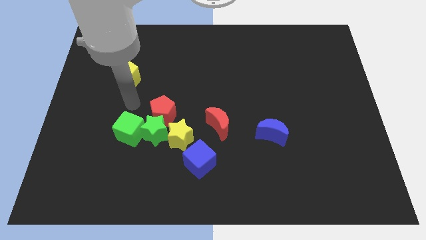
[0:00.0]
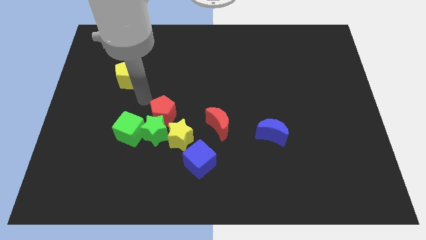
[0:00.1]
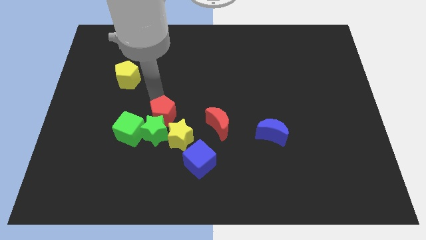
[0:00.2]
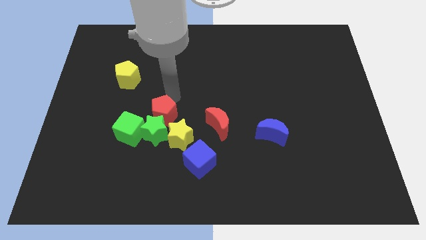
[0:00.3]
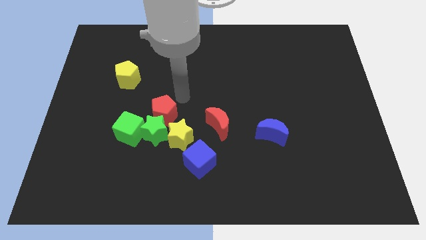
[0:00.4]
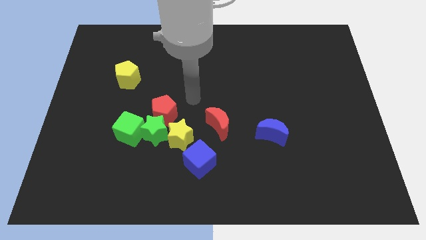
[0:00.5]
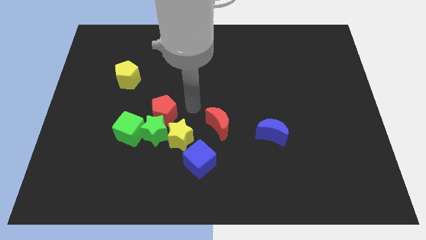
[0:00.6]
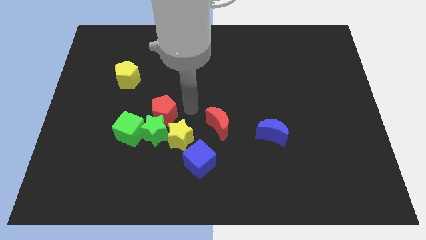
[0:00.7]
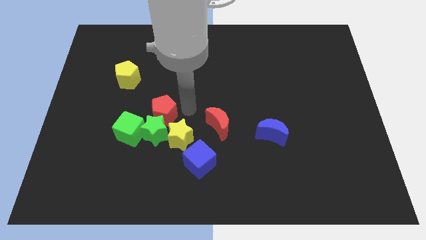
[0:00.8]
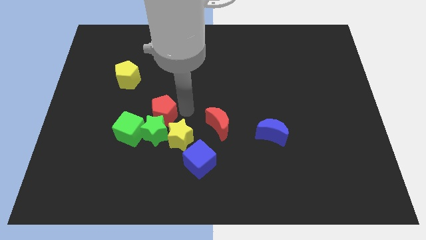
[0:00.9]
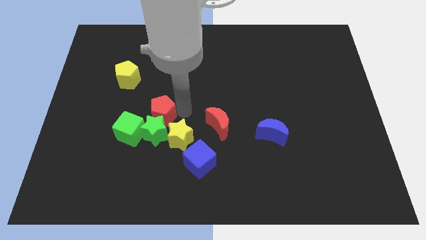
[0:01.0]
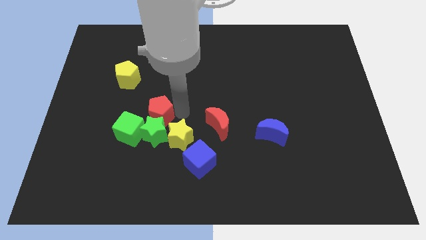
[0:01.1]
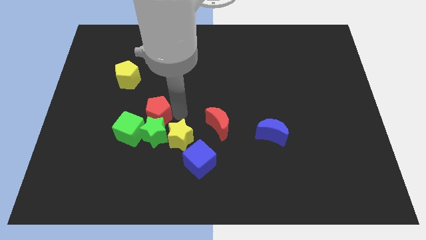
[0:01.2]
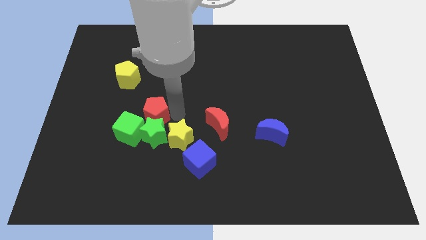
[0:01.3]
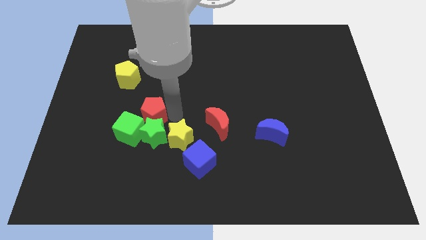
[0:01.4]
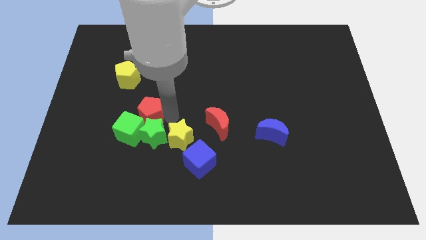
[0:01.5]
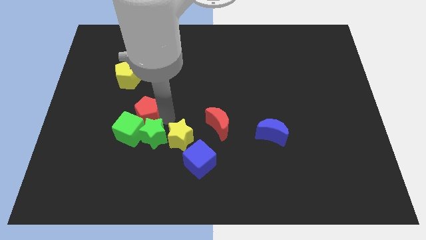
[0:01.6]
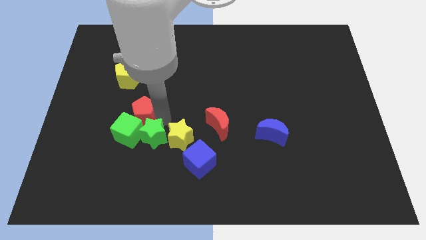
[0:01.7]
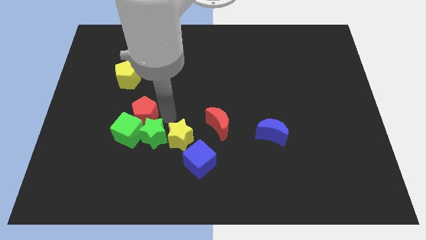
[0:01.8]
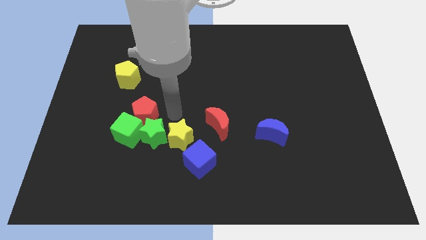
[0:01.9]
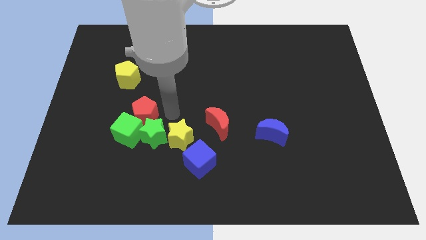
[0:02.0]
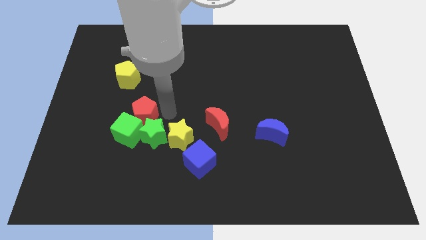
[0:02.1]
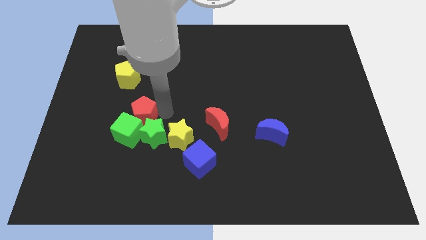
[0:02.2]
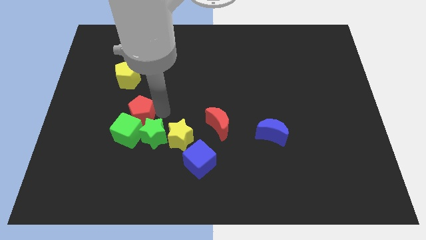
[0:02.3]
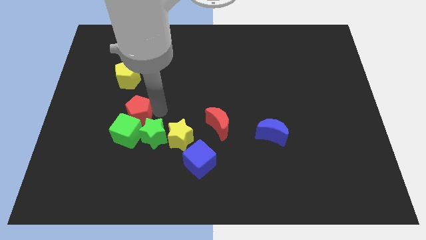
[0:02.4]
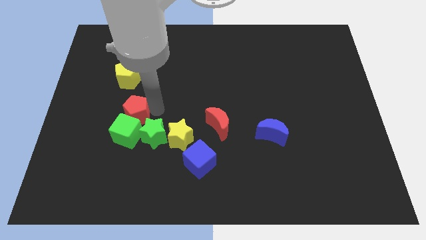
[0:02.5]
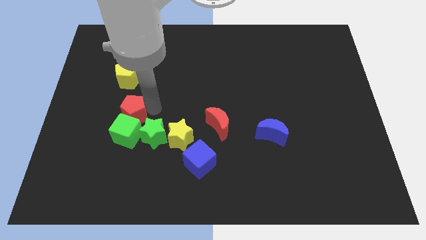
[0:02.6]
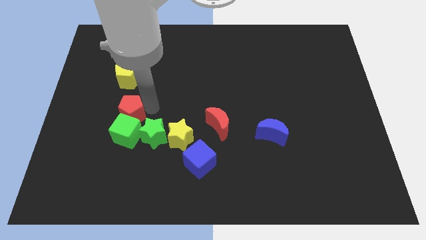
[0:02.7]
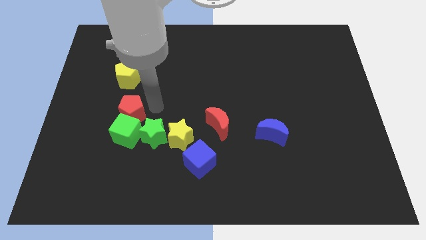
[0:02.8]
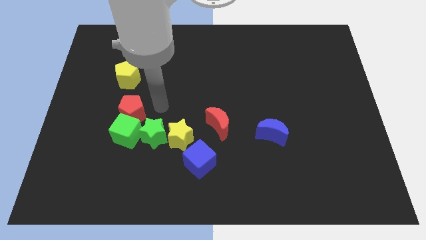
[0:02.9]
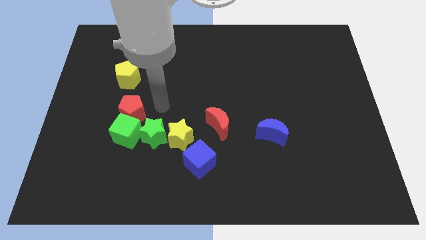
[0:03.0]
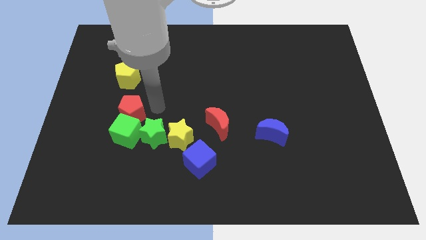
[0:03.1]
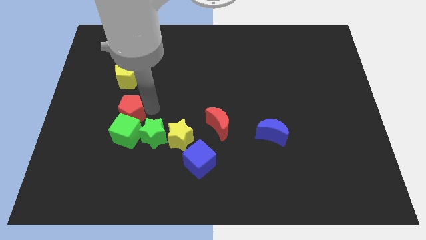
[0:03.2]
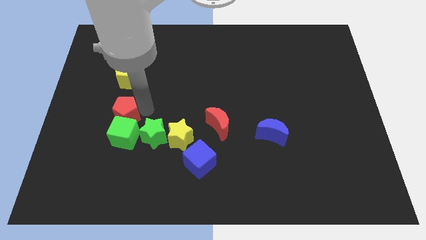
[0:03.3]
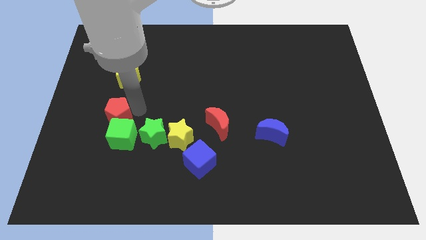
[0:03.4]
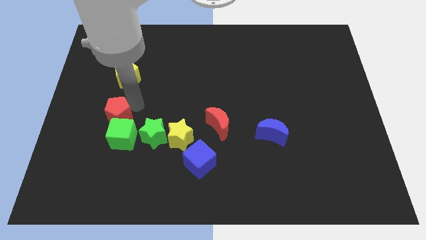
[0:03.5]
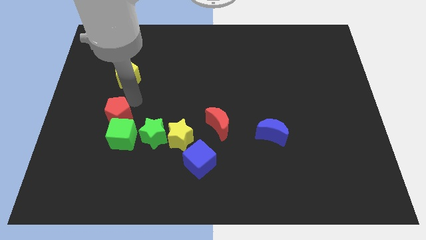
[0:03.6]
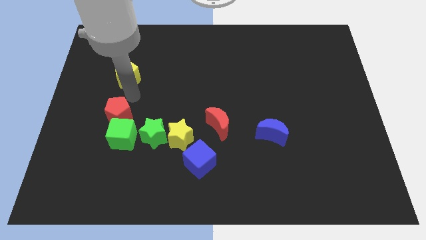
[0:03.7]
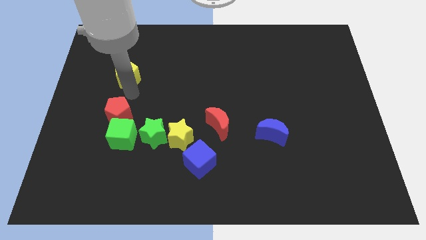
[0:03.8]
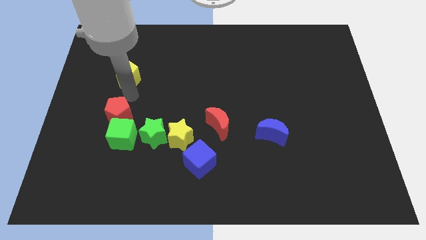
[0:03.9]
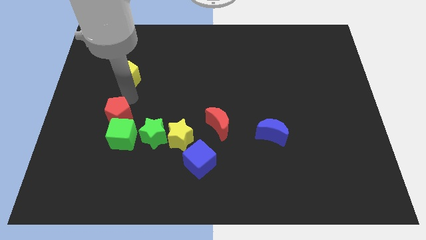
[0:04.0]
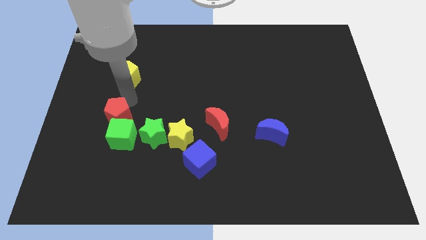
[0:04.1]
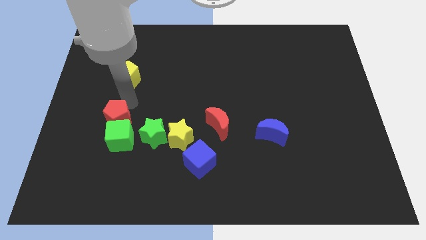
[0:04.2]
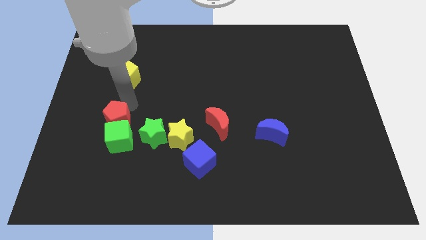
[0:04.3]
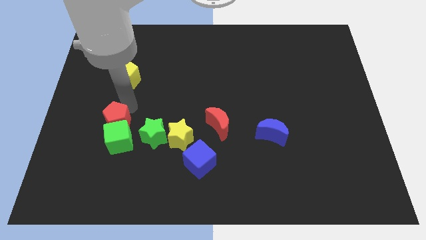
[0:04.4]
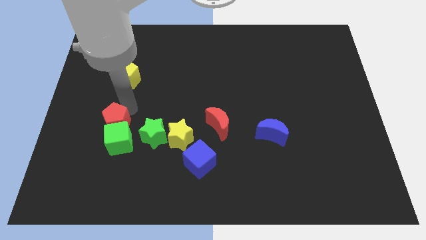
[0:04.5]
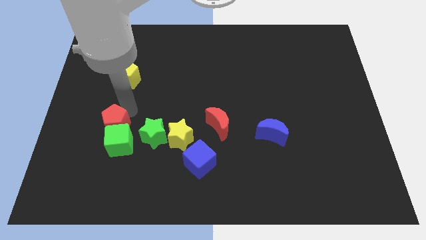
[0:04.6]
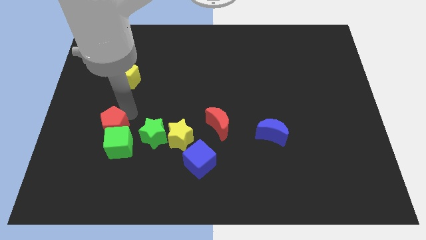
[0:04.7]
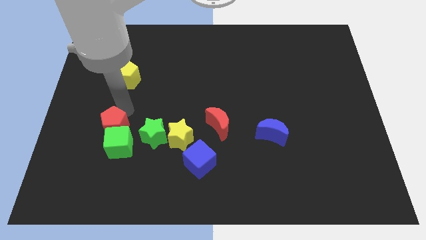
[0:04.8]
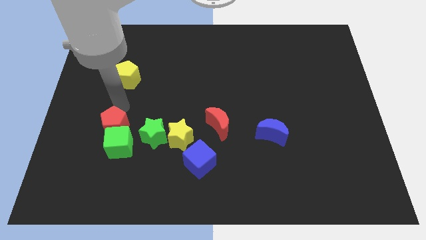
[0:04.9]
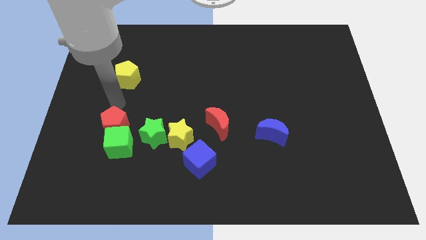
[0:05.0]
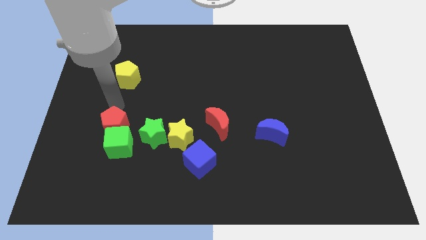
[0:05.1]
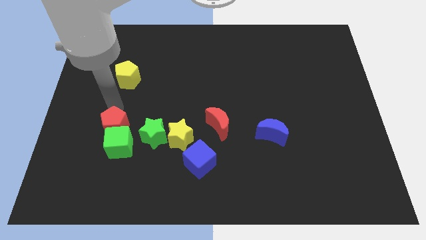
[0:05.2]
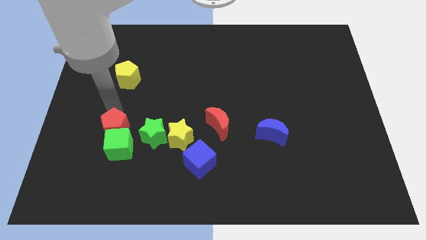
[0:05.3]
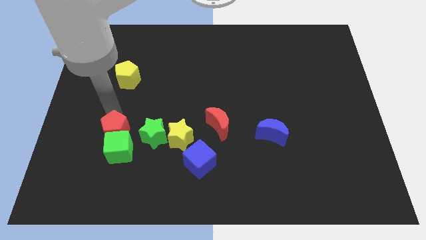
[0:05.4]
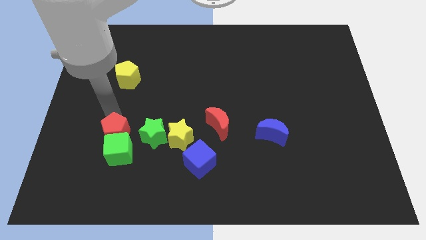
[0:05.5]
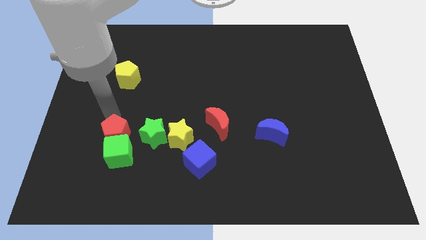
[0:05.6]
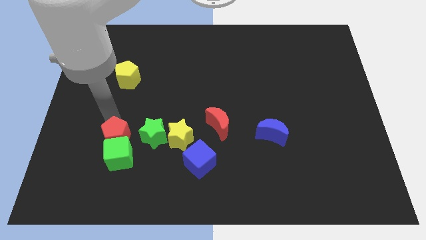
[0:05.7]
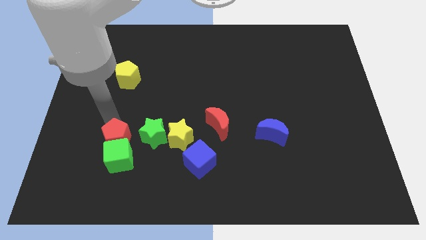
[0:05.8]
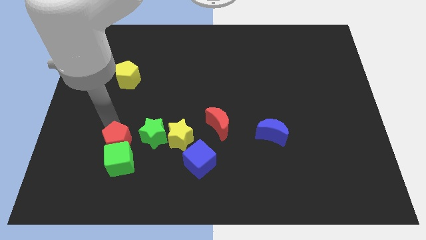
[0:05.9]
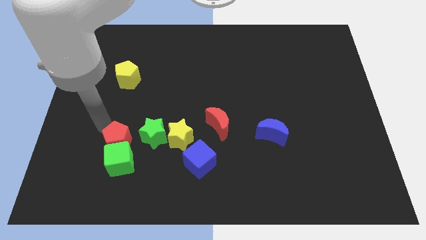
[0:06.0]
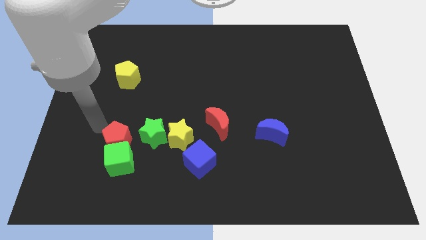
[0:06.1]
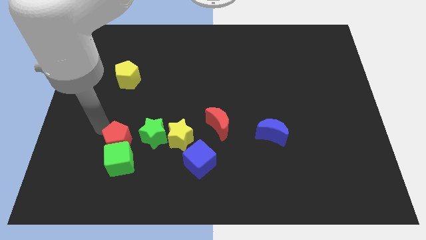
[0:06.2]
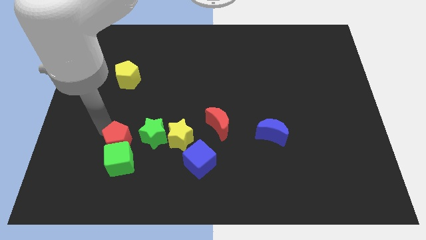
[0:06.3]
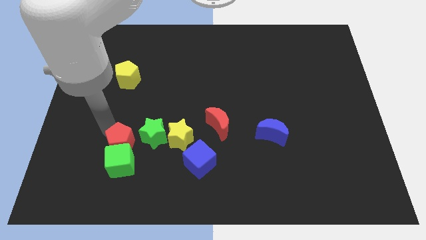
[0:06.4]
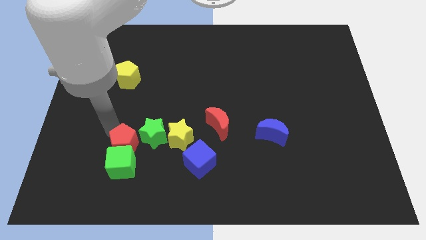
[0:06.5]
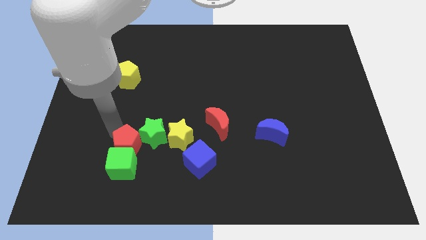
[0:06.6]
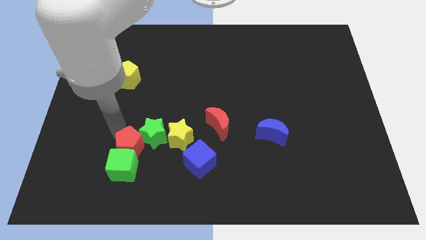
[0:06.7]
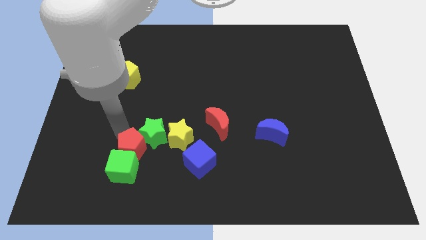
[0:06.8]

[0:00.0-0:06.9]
put the red pentagon just left of the blue cube

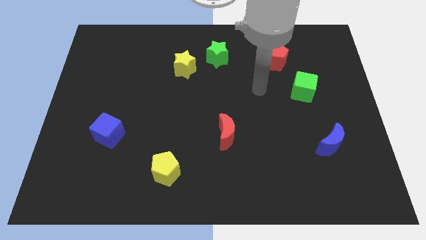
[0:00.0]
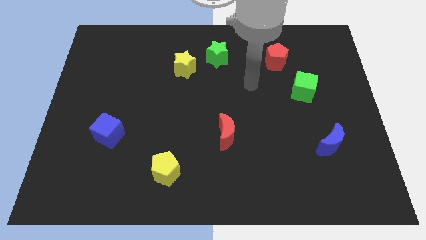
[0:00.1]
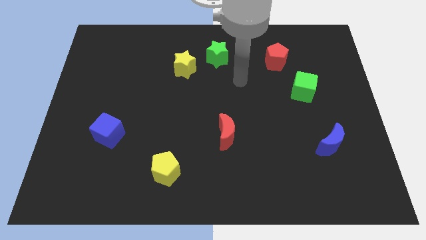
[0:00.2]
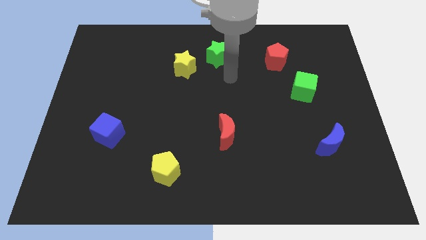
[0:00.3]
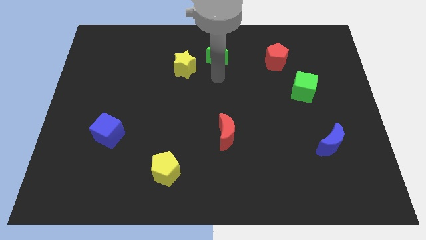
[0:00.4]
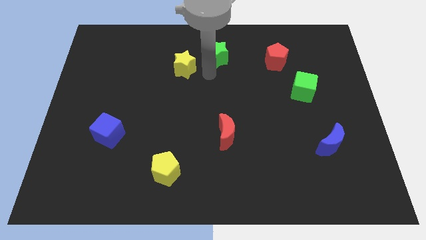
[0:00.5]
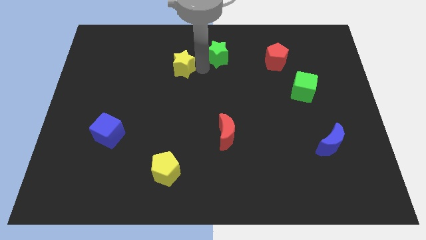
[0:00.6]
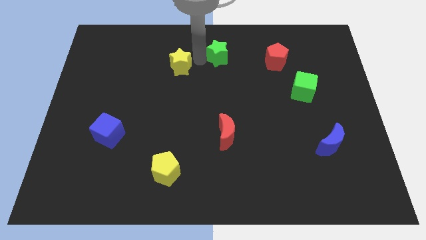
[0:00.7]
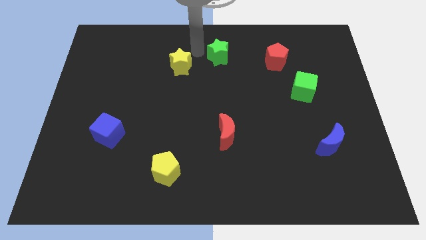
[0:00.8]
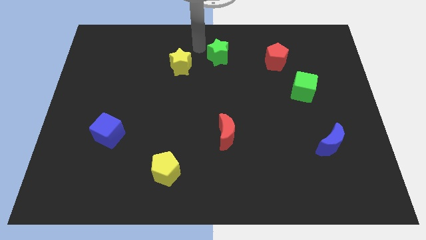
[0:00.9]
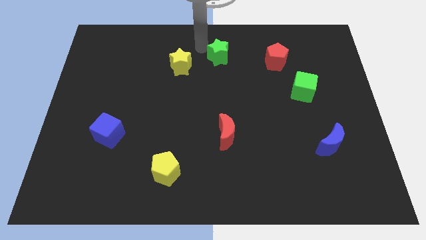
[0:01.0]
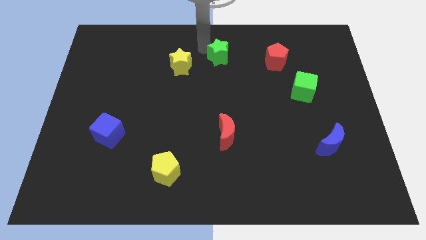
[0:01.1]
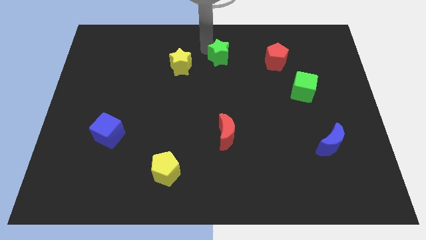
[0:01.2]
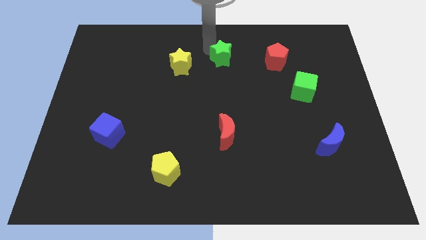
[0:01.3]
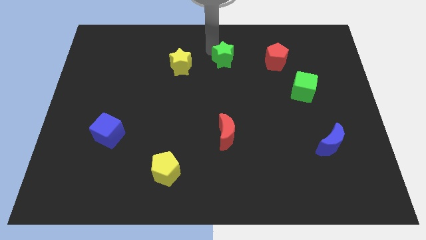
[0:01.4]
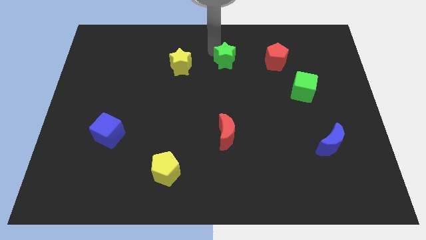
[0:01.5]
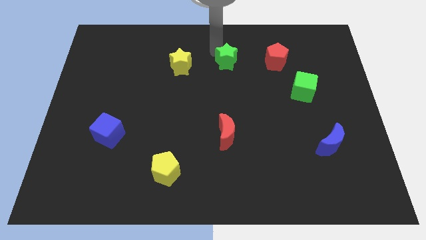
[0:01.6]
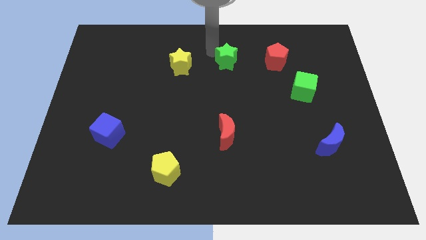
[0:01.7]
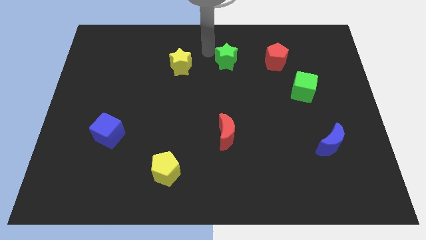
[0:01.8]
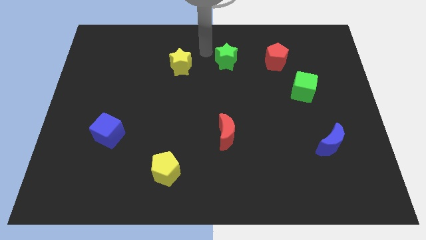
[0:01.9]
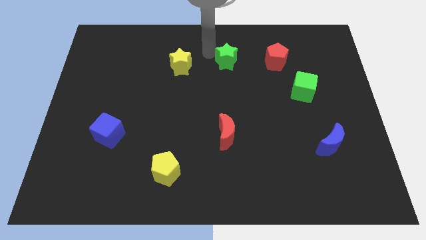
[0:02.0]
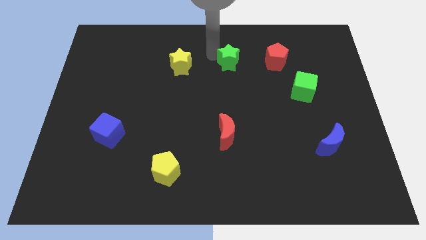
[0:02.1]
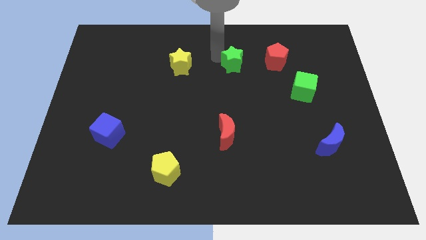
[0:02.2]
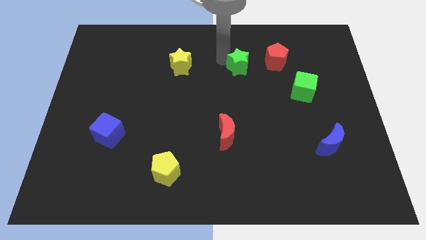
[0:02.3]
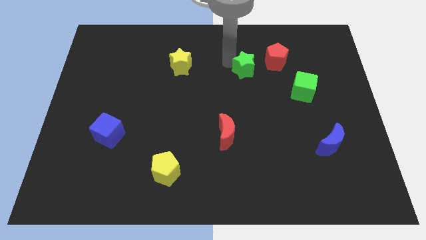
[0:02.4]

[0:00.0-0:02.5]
slide the green star to the bottom left side of the red pentagon
